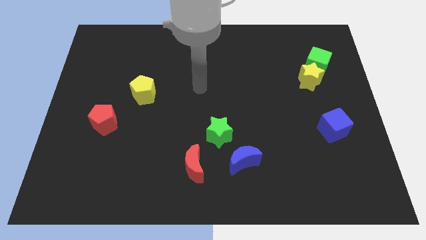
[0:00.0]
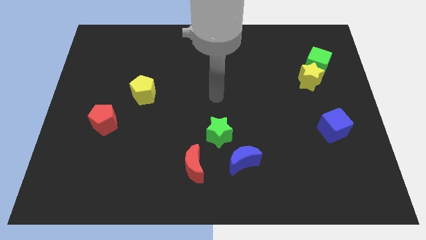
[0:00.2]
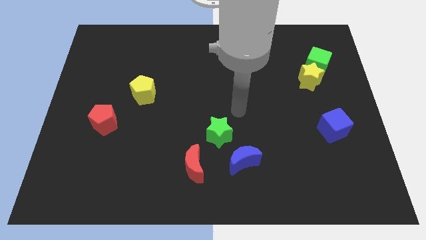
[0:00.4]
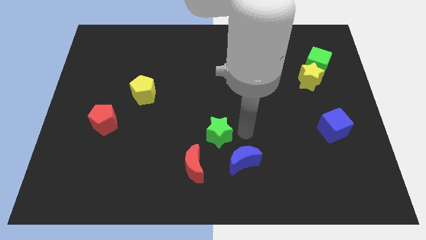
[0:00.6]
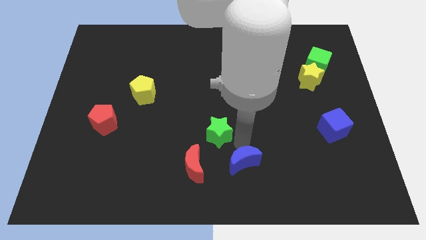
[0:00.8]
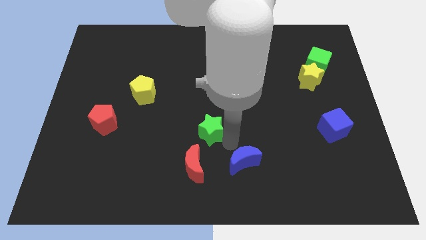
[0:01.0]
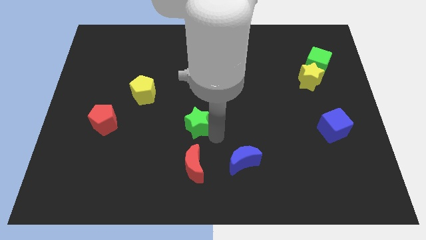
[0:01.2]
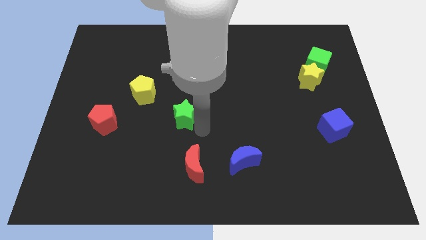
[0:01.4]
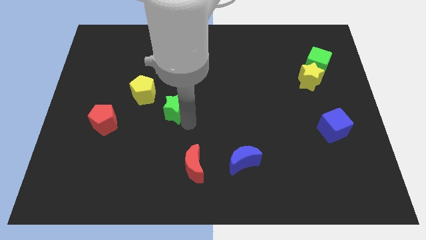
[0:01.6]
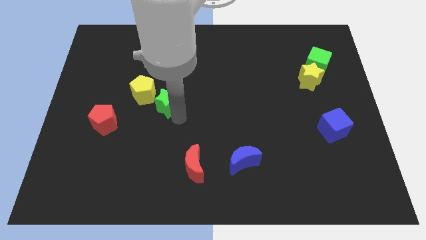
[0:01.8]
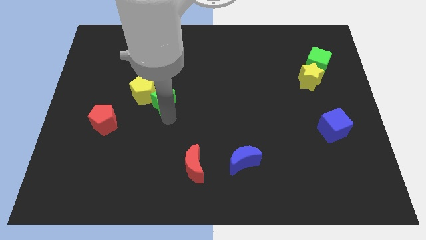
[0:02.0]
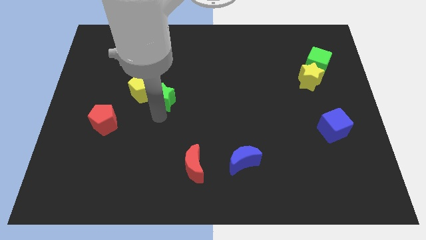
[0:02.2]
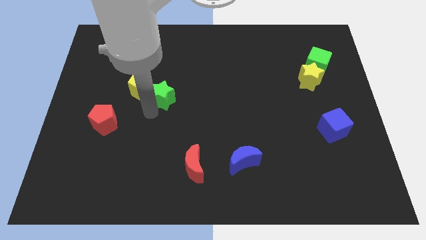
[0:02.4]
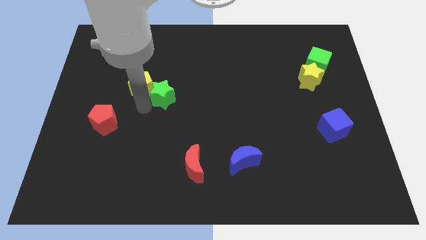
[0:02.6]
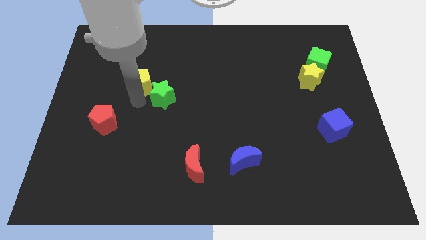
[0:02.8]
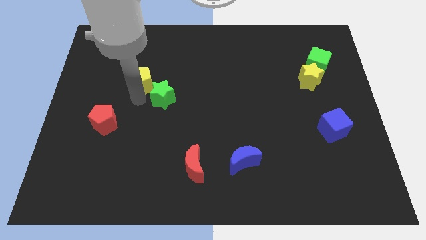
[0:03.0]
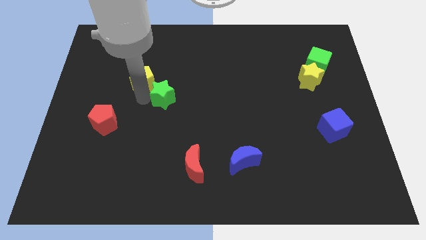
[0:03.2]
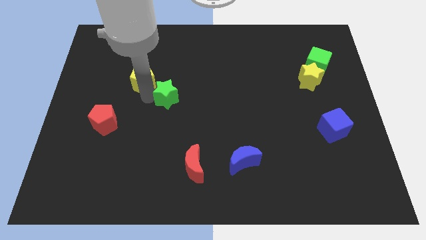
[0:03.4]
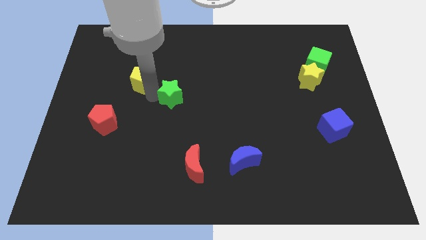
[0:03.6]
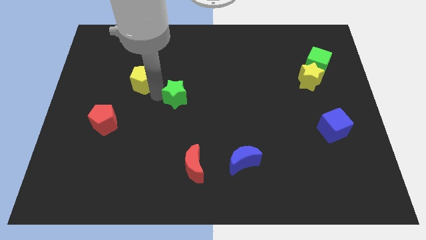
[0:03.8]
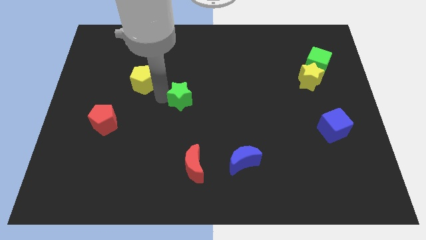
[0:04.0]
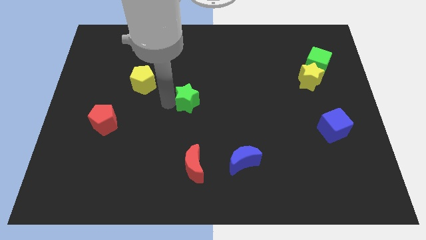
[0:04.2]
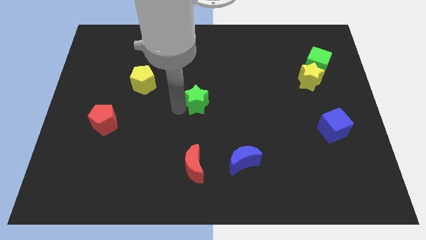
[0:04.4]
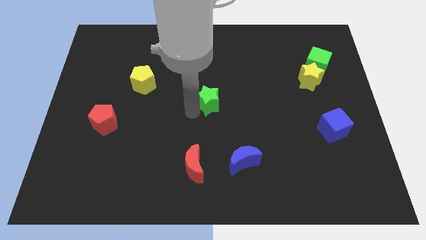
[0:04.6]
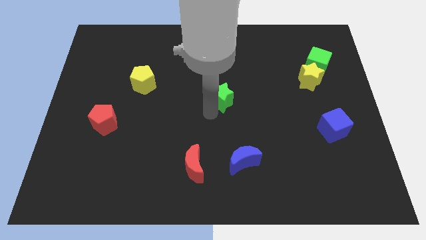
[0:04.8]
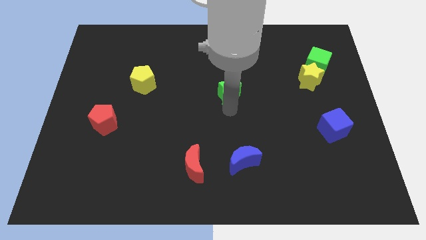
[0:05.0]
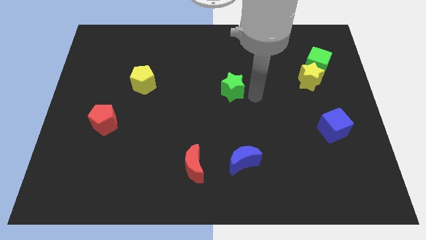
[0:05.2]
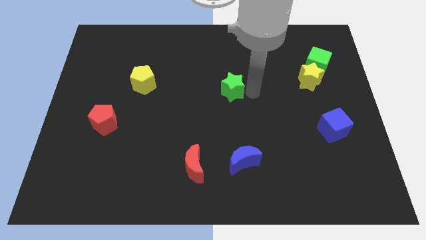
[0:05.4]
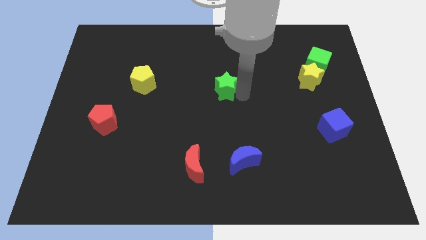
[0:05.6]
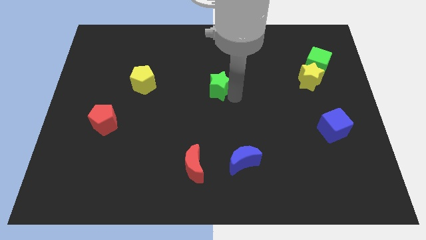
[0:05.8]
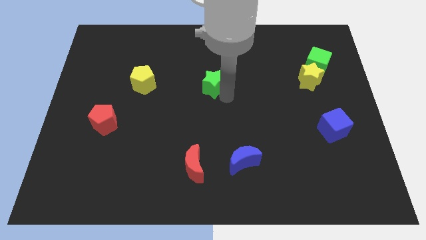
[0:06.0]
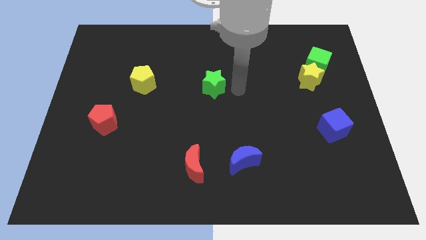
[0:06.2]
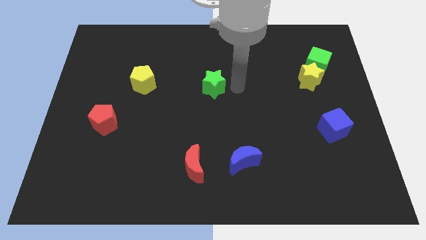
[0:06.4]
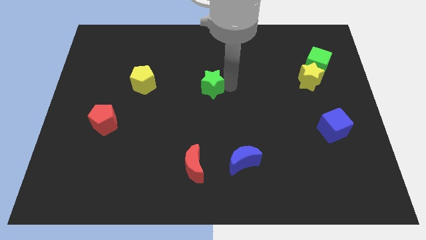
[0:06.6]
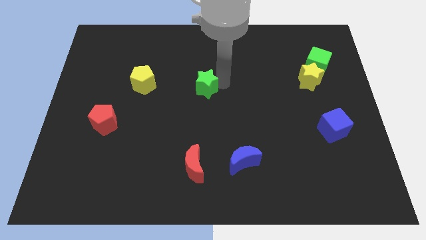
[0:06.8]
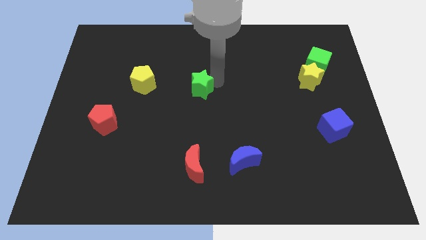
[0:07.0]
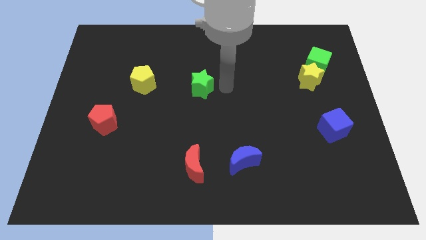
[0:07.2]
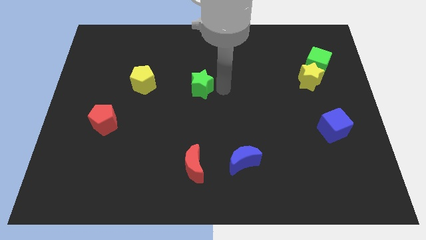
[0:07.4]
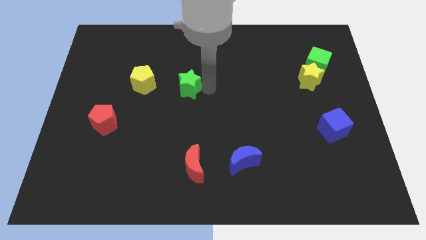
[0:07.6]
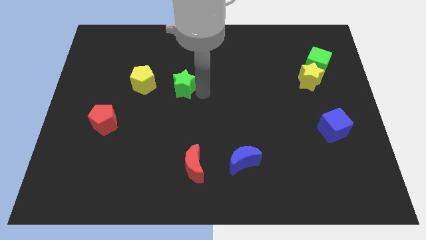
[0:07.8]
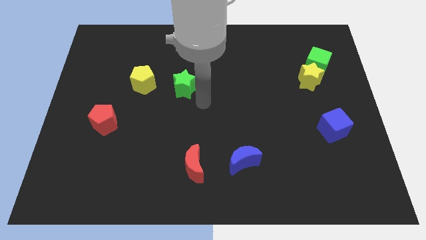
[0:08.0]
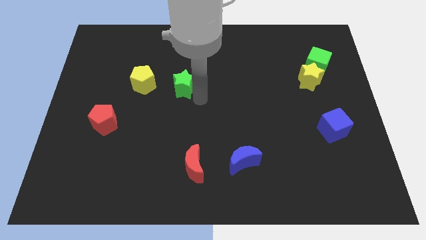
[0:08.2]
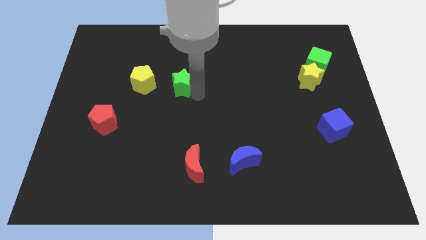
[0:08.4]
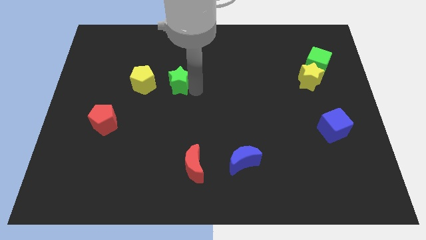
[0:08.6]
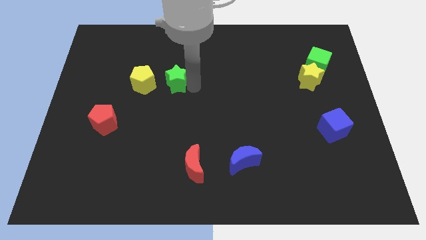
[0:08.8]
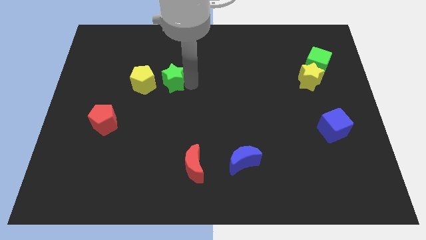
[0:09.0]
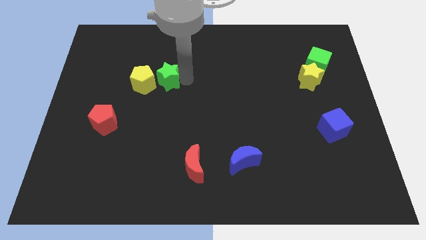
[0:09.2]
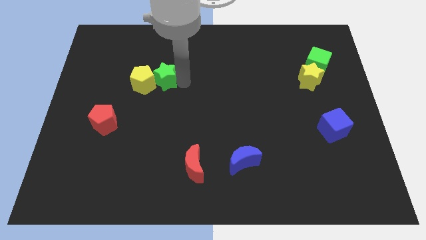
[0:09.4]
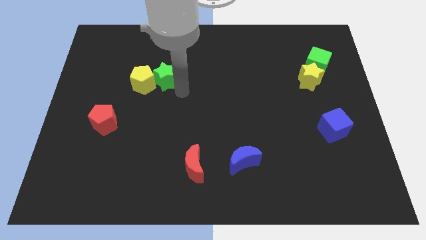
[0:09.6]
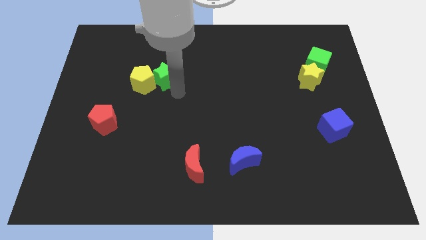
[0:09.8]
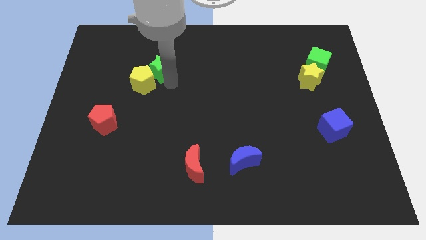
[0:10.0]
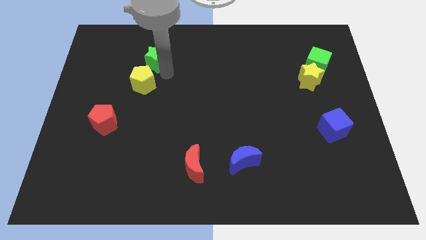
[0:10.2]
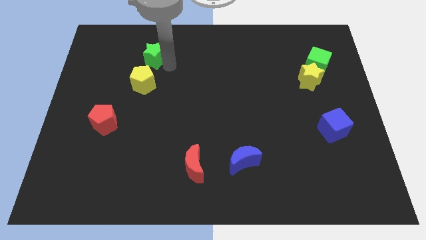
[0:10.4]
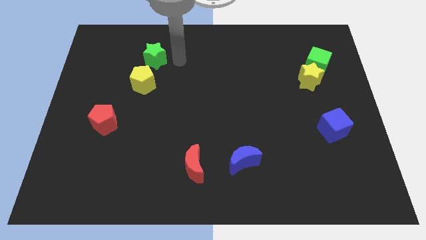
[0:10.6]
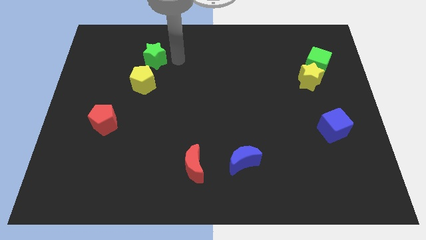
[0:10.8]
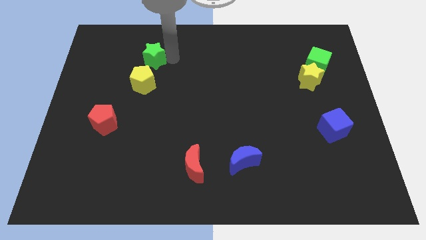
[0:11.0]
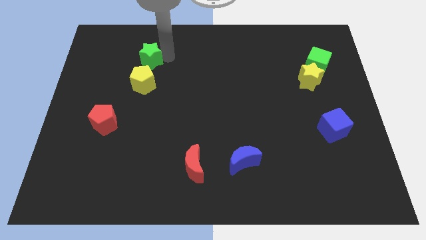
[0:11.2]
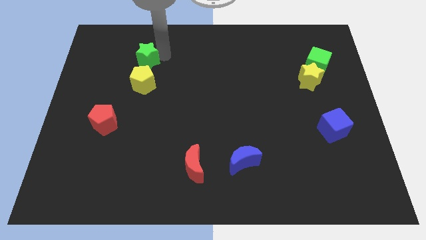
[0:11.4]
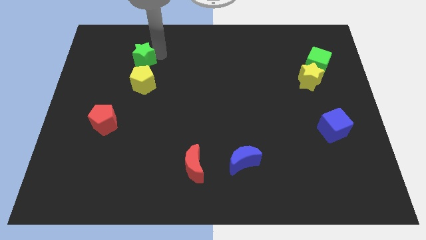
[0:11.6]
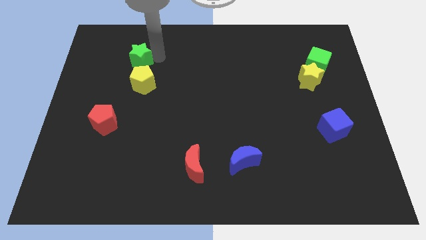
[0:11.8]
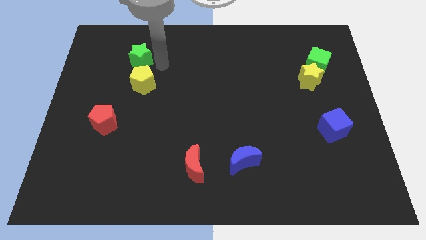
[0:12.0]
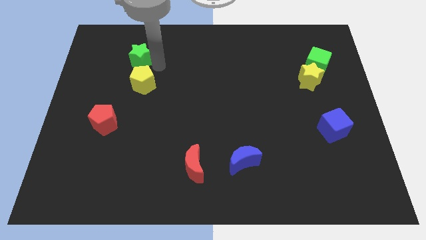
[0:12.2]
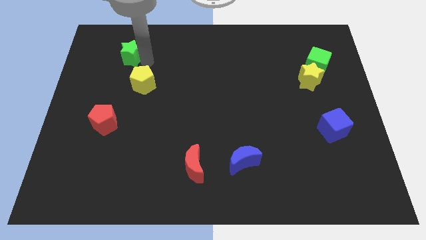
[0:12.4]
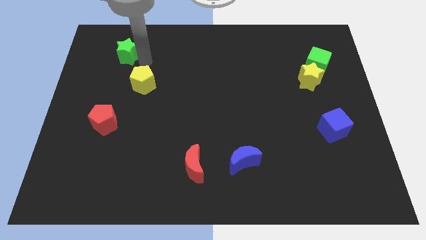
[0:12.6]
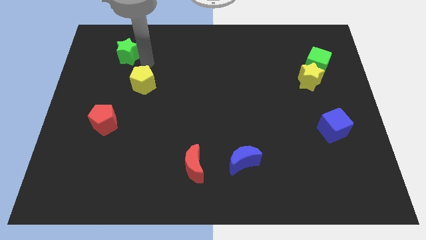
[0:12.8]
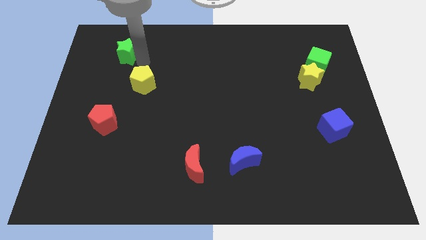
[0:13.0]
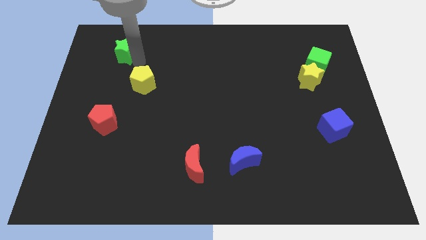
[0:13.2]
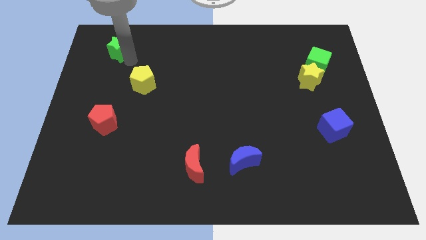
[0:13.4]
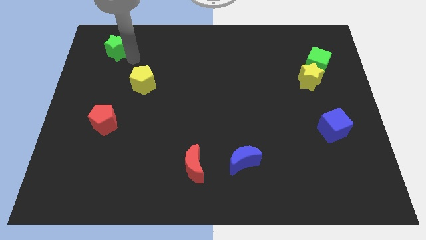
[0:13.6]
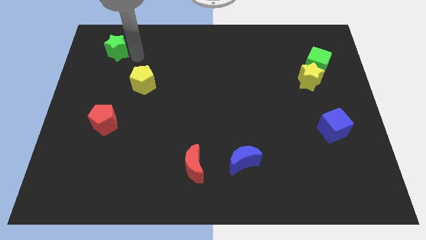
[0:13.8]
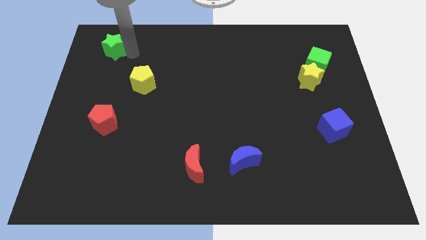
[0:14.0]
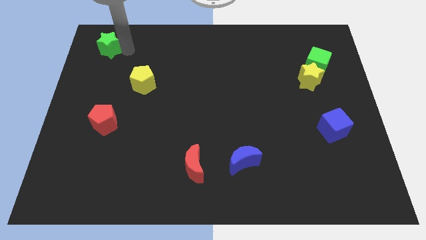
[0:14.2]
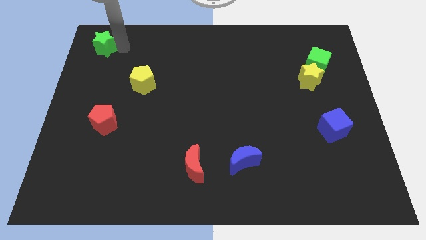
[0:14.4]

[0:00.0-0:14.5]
push the green star to the top left

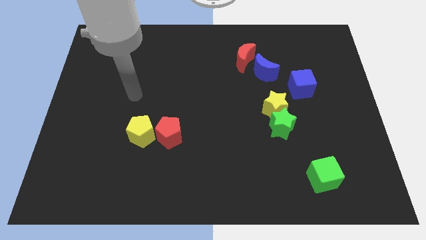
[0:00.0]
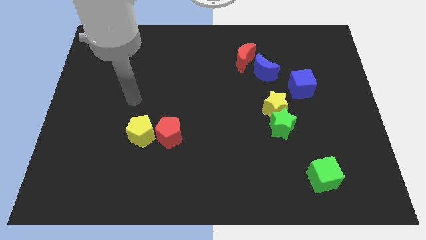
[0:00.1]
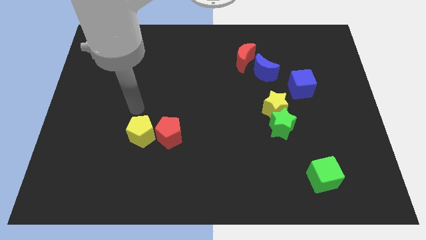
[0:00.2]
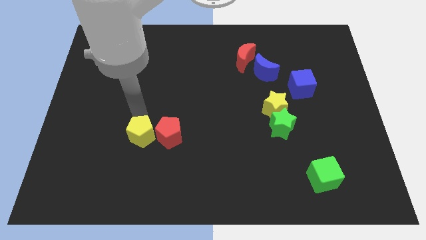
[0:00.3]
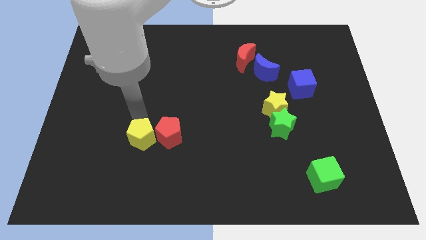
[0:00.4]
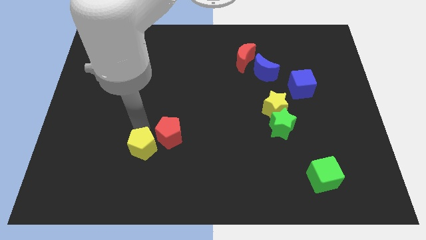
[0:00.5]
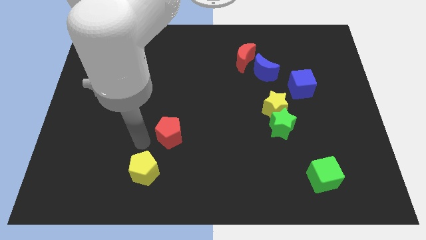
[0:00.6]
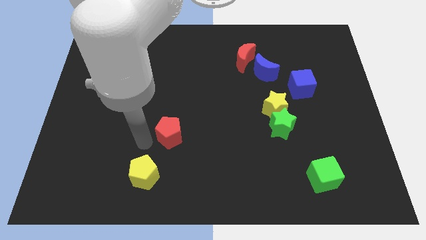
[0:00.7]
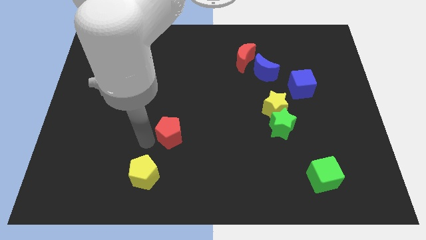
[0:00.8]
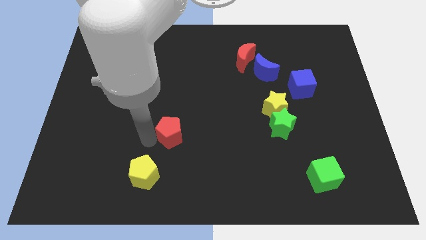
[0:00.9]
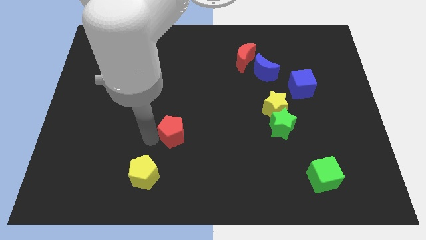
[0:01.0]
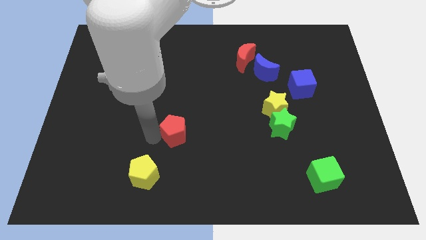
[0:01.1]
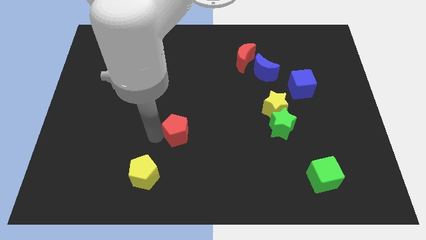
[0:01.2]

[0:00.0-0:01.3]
put the red pentagon to the middle of the board
